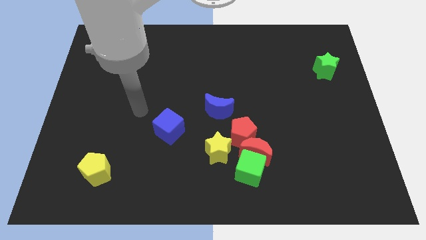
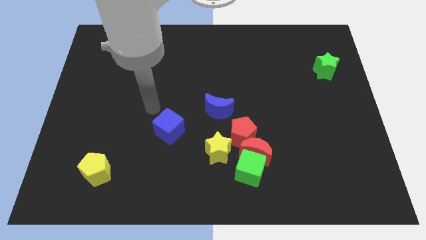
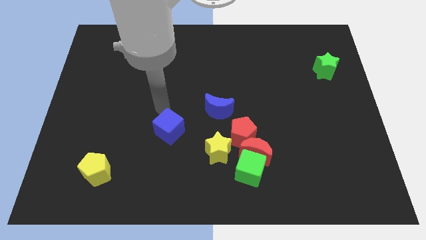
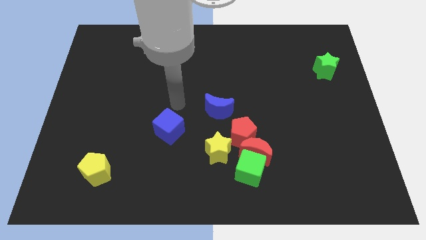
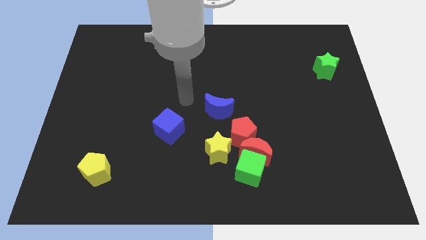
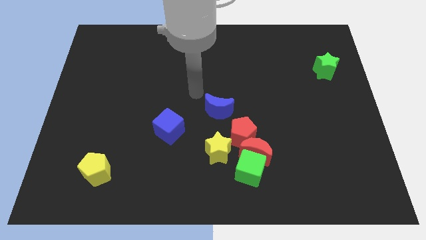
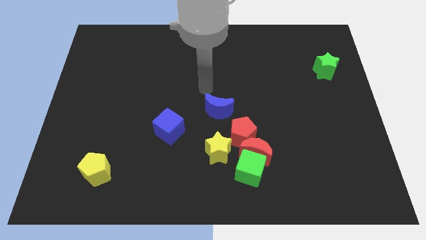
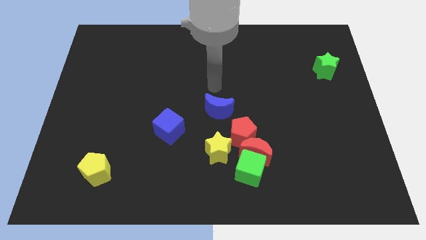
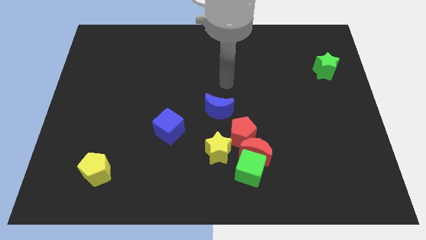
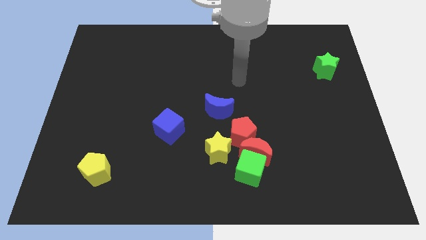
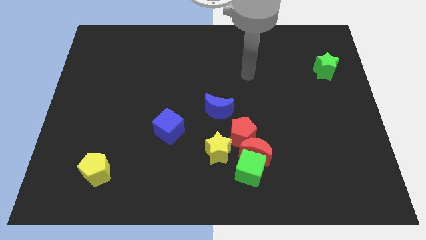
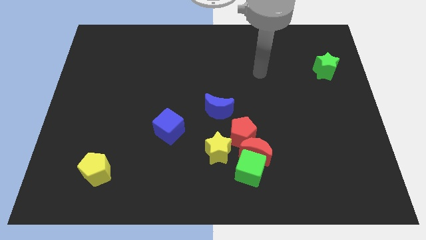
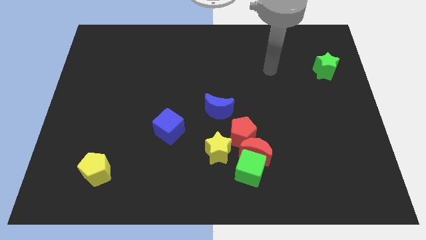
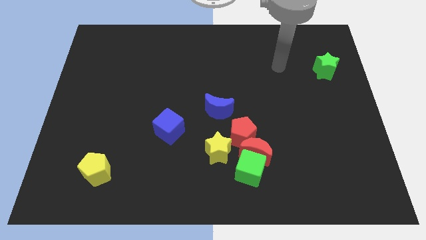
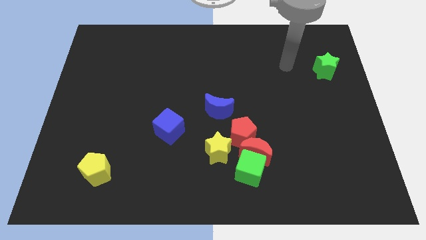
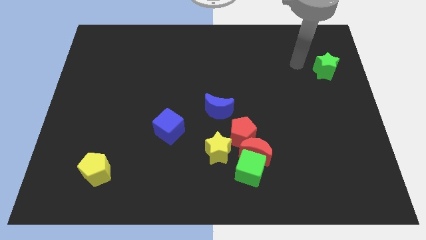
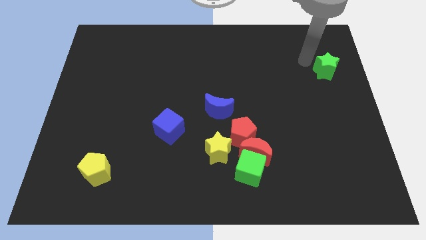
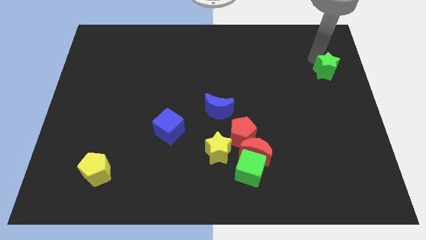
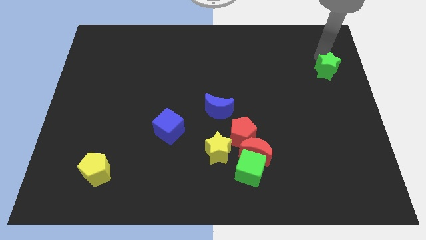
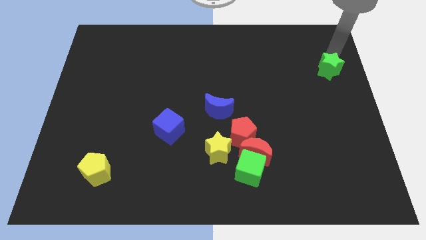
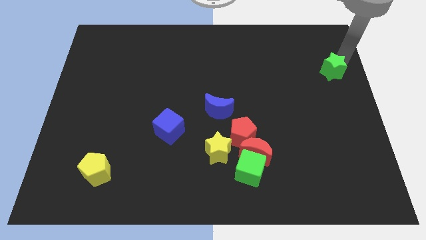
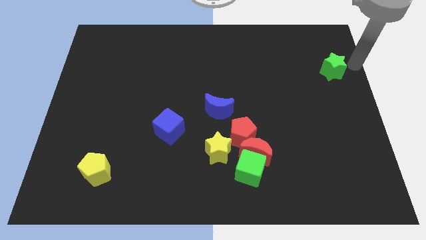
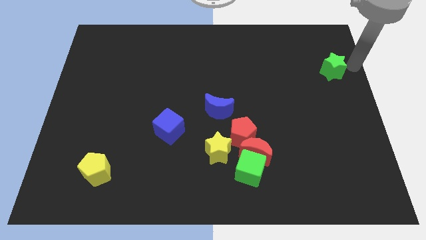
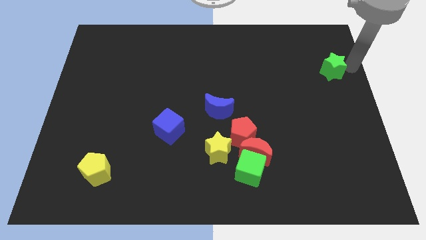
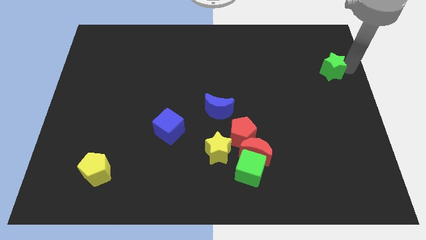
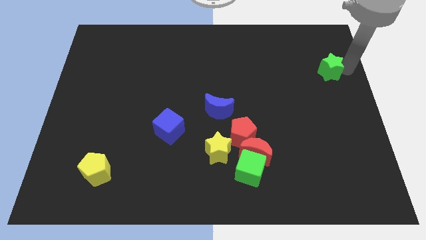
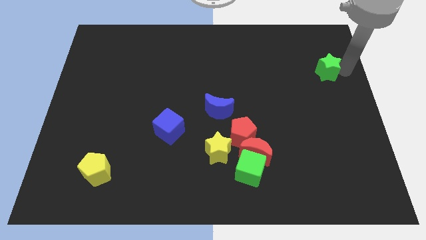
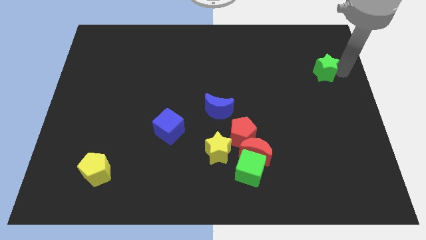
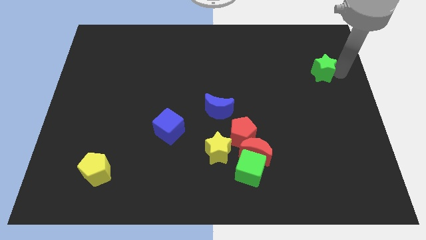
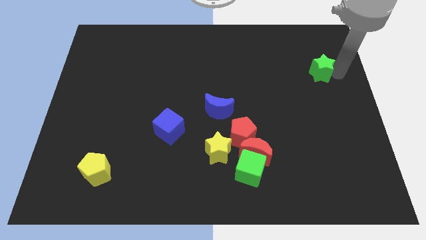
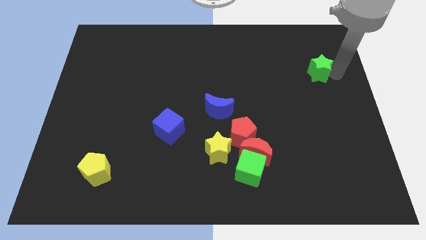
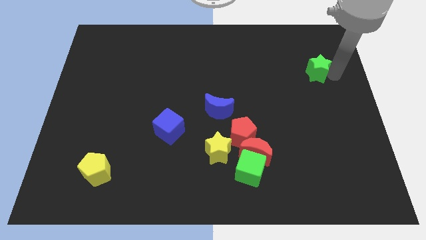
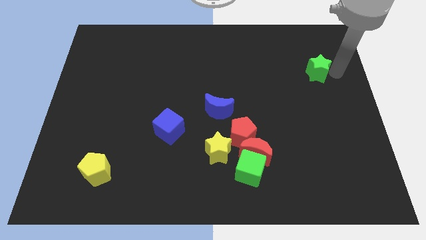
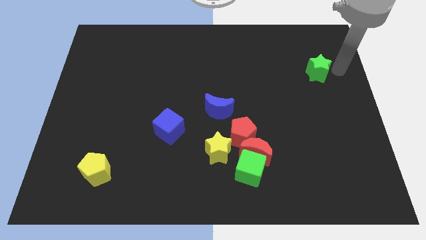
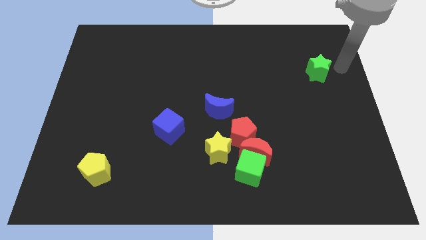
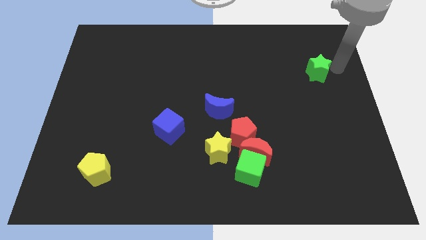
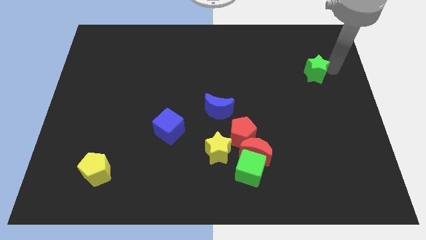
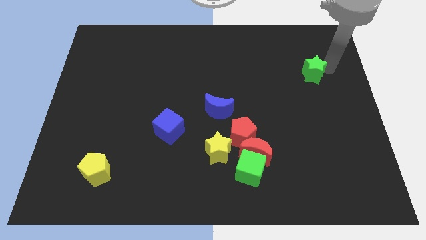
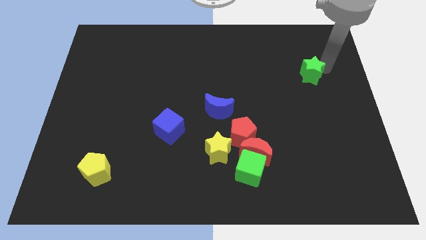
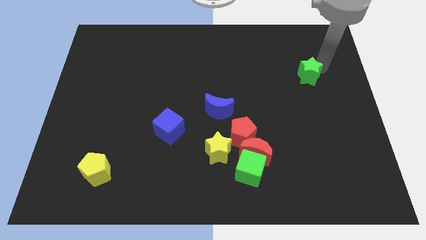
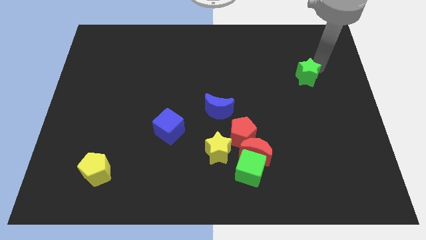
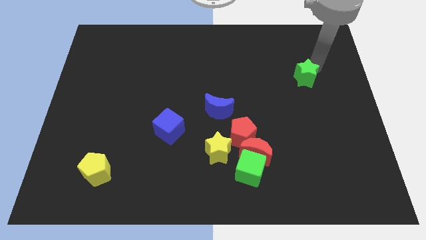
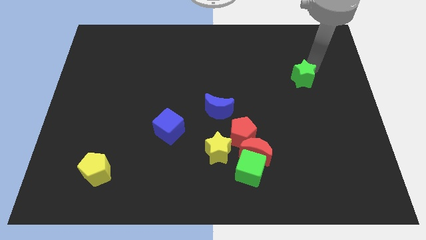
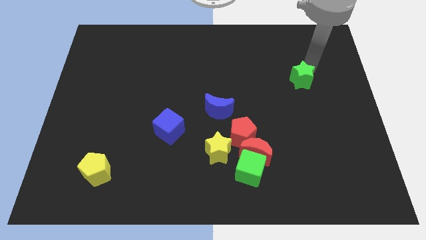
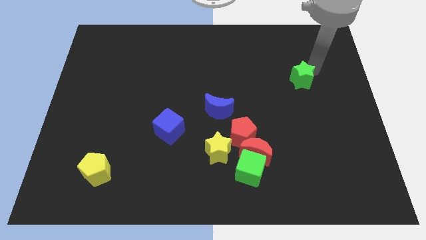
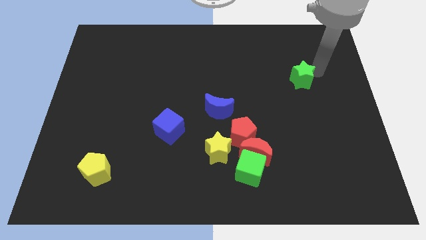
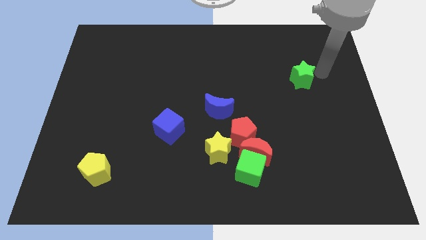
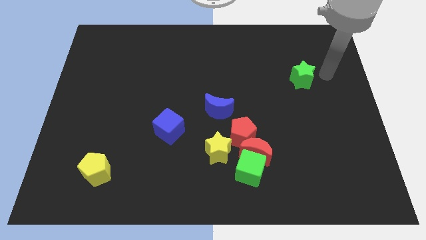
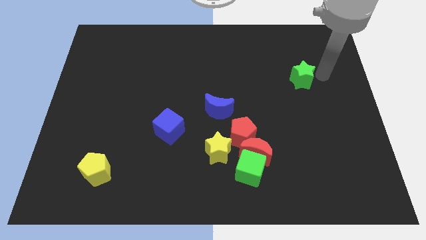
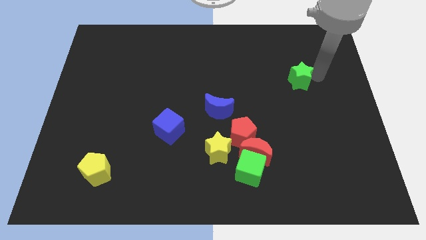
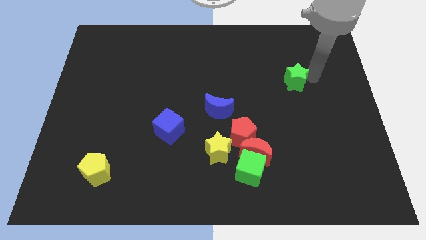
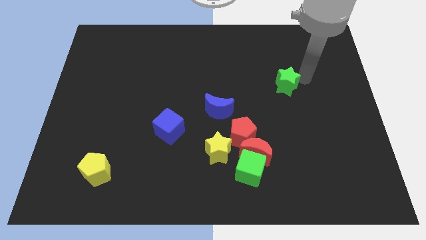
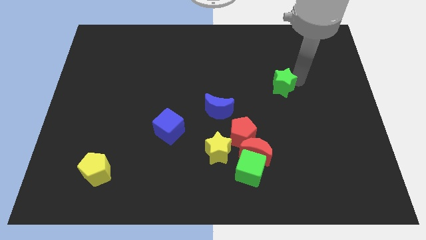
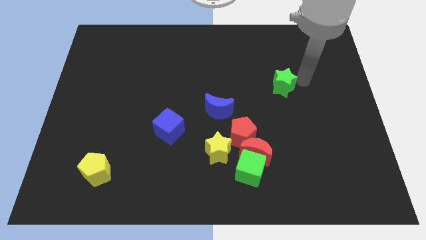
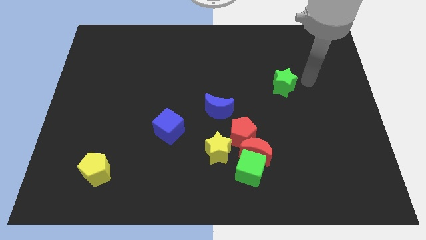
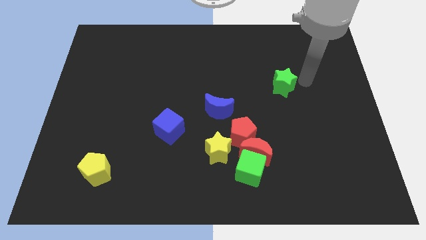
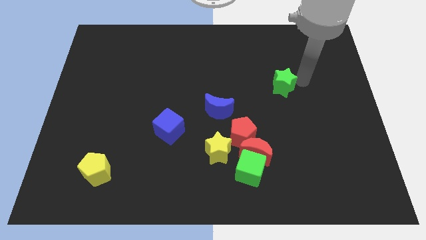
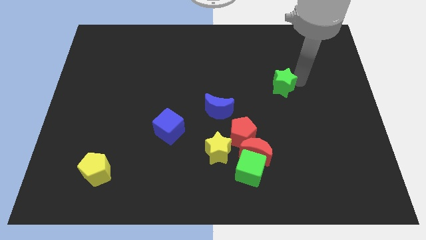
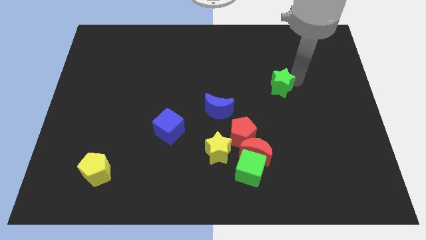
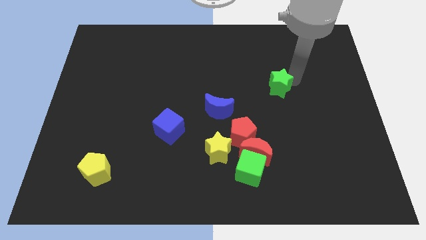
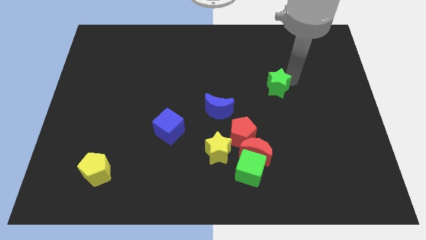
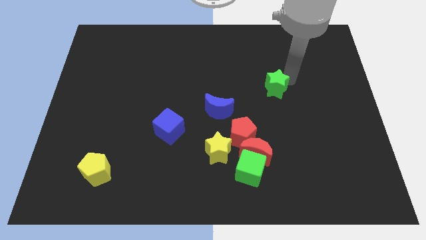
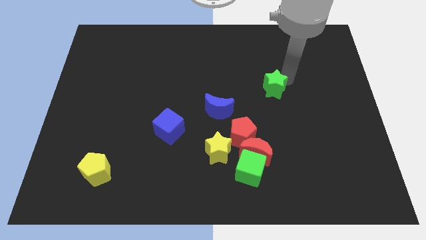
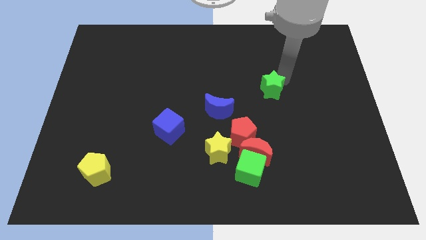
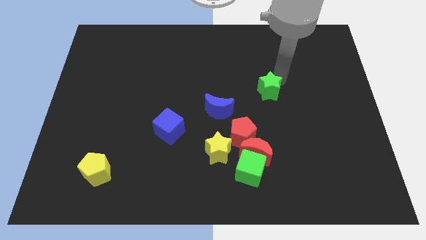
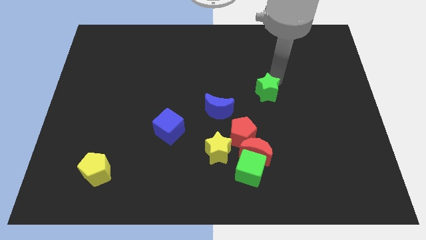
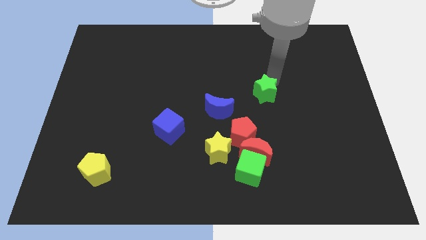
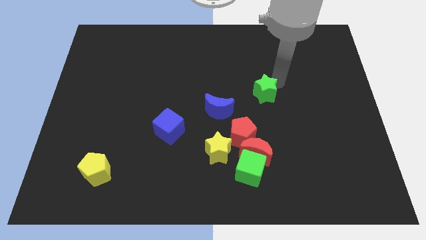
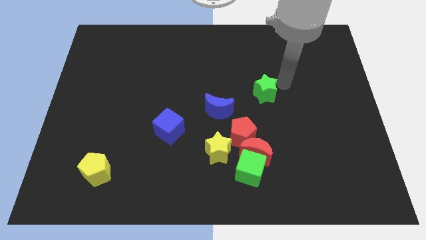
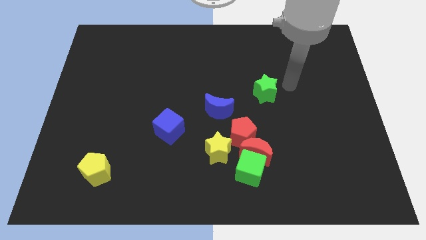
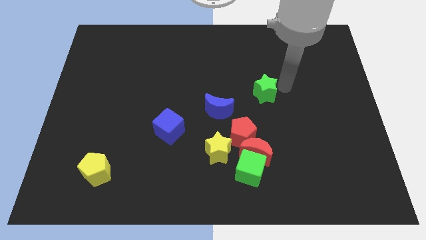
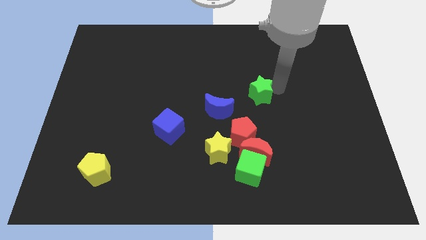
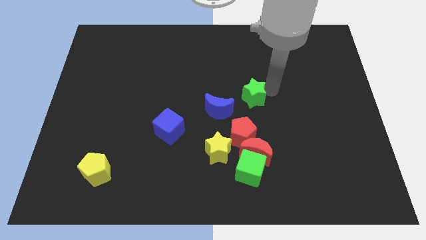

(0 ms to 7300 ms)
push the green star to the top of the red pentagon

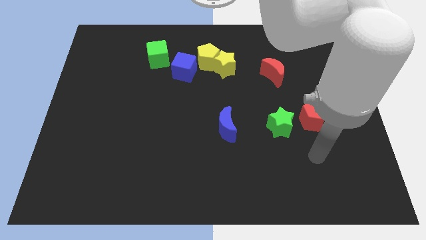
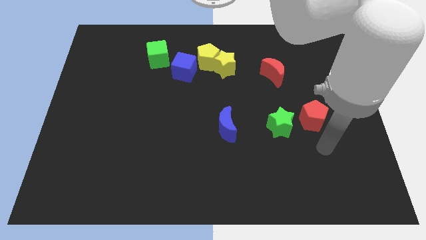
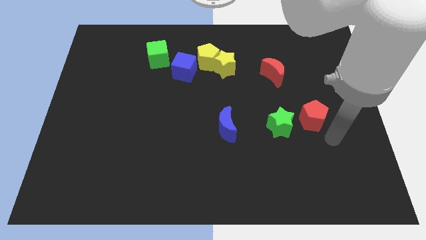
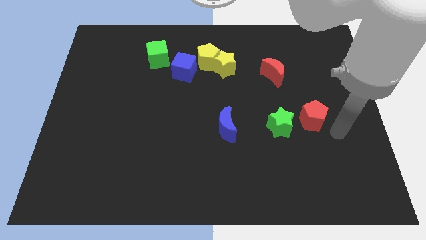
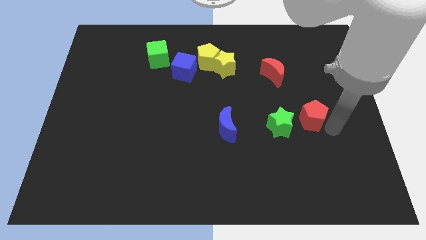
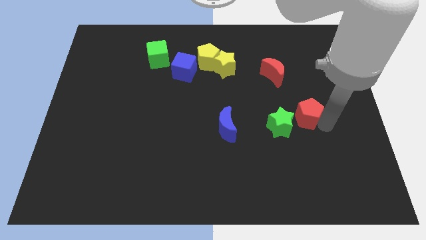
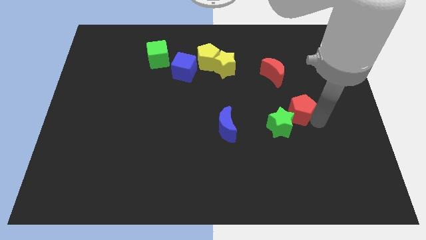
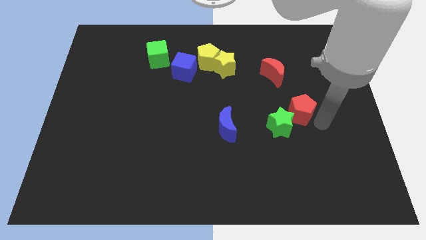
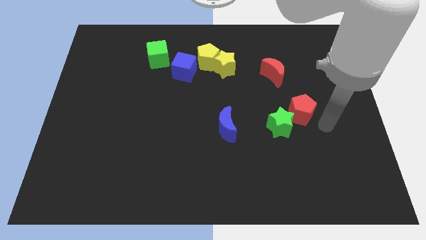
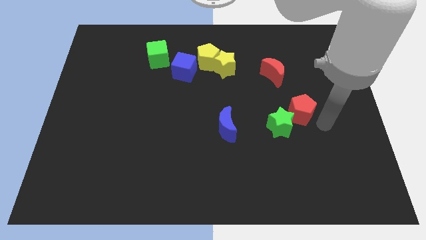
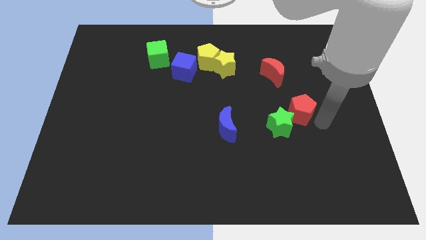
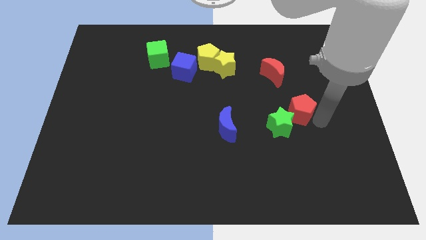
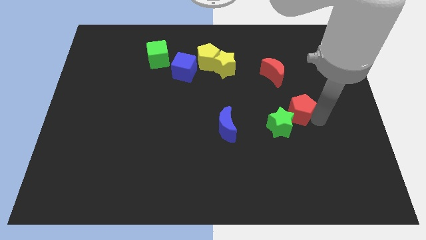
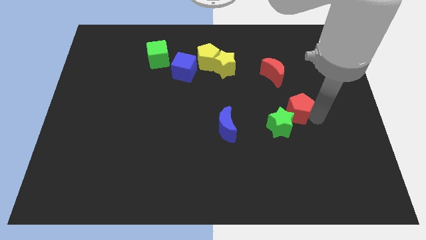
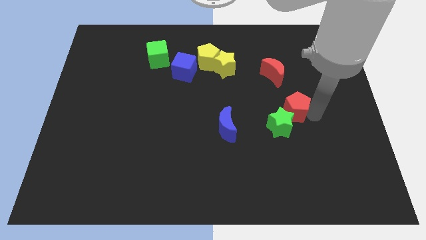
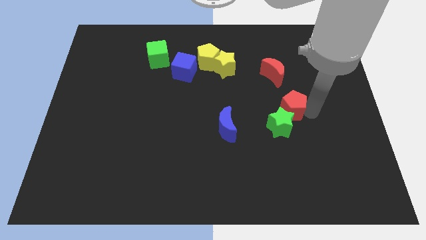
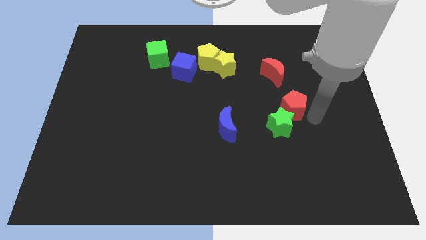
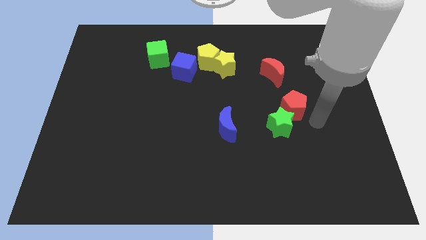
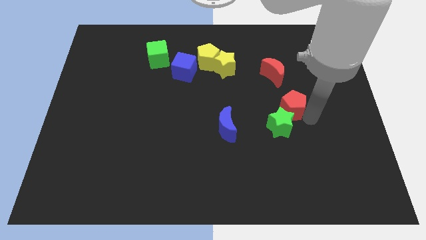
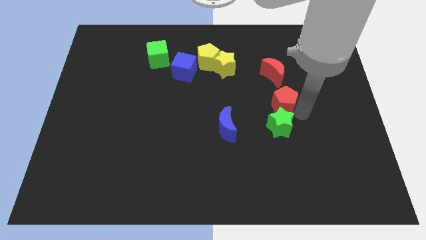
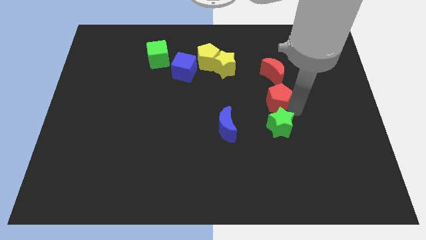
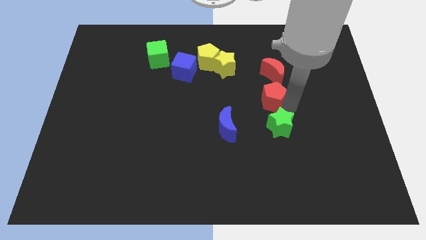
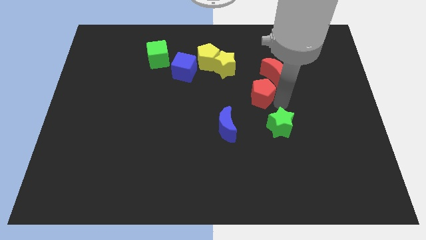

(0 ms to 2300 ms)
slide the red pentagon diagonally down and to the right of the yellow star
